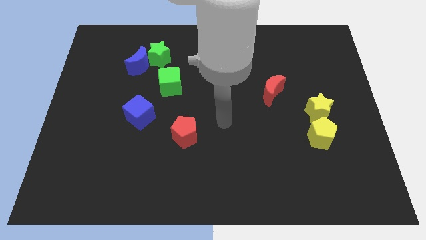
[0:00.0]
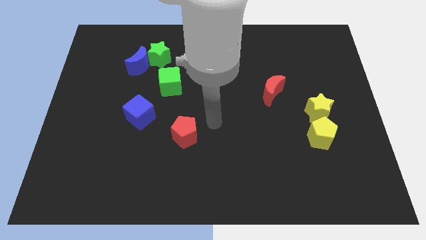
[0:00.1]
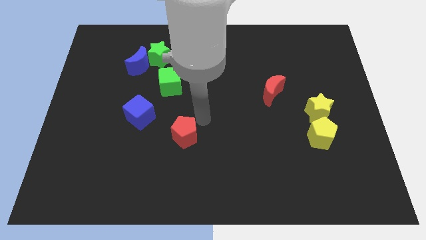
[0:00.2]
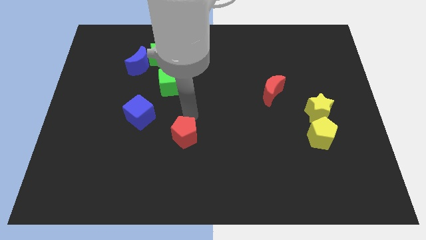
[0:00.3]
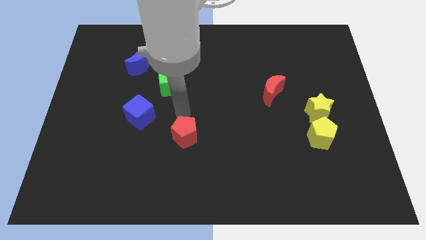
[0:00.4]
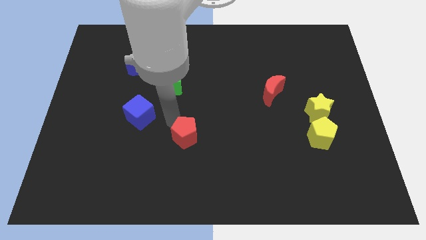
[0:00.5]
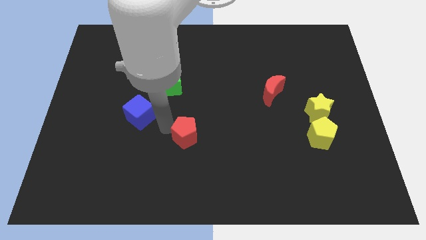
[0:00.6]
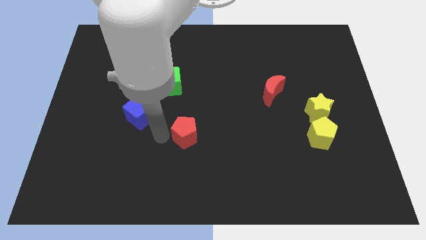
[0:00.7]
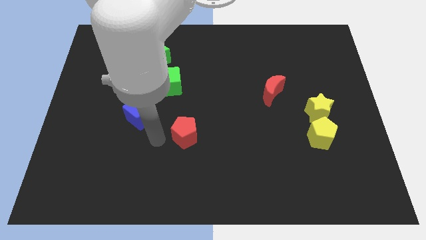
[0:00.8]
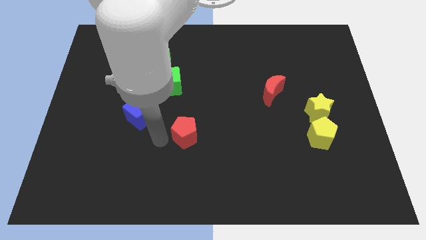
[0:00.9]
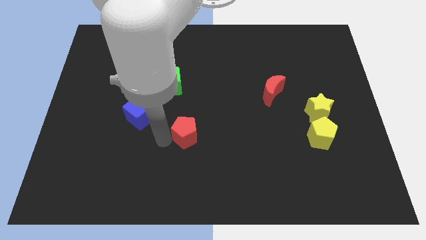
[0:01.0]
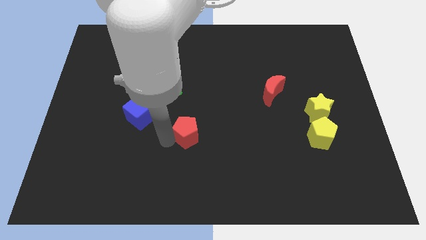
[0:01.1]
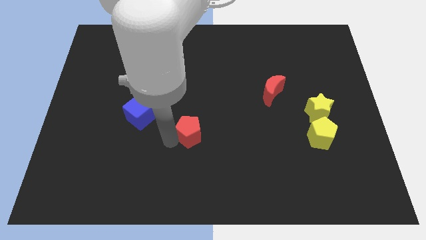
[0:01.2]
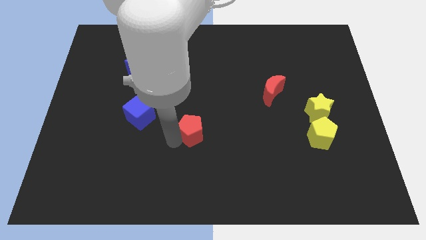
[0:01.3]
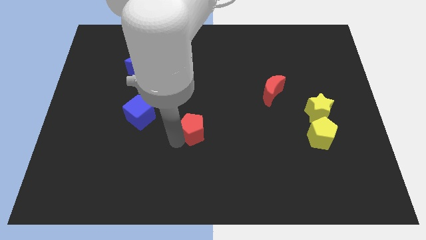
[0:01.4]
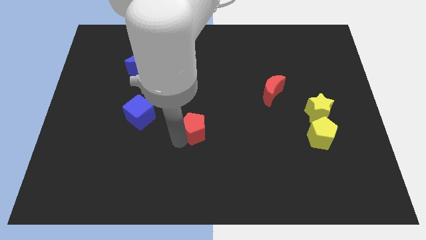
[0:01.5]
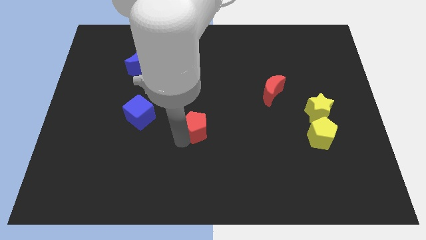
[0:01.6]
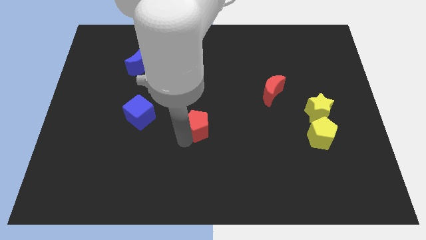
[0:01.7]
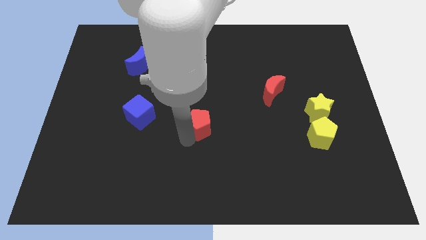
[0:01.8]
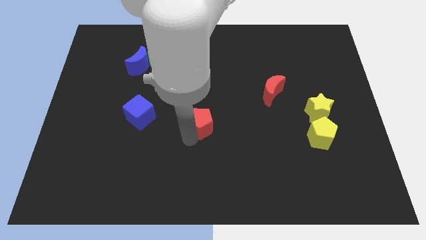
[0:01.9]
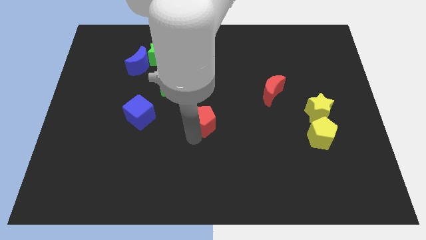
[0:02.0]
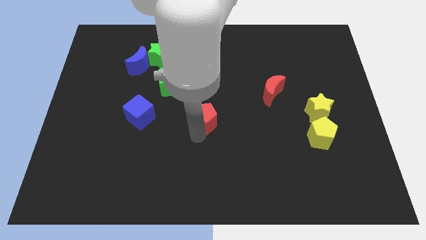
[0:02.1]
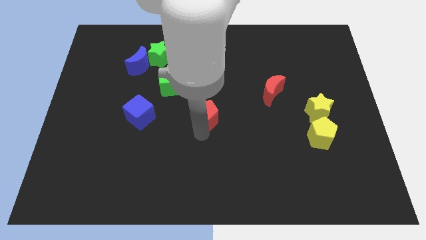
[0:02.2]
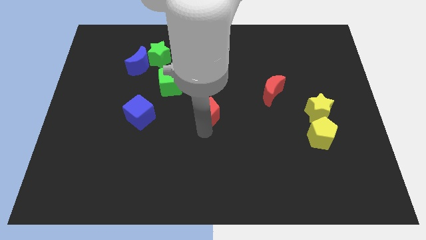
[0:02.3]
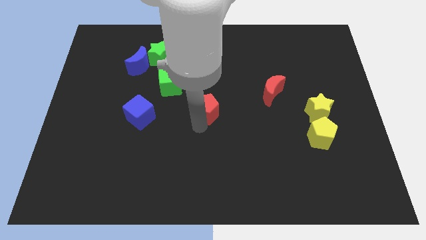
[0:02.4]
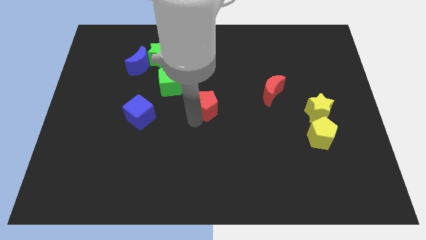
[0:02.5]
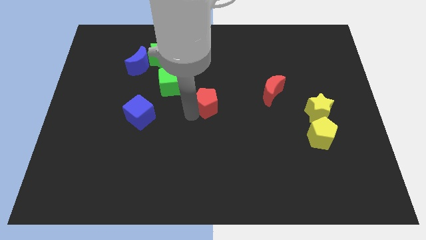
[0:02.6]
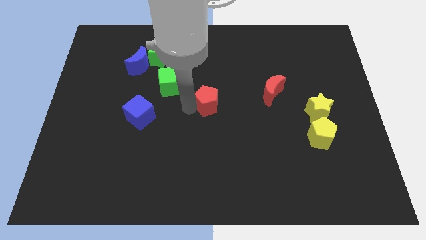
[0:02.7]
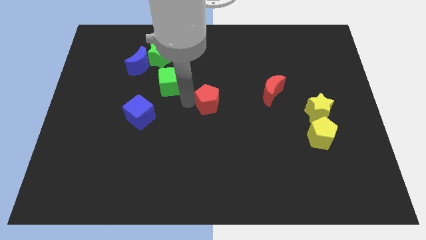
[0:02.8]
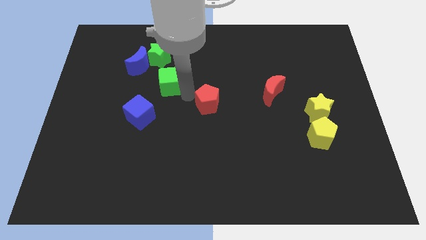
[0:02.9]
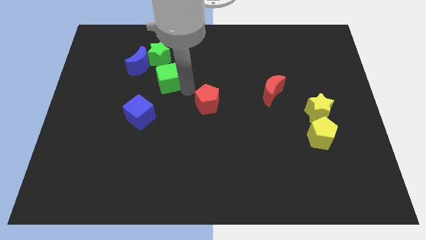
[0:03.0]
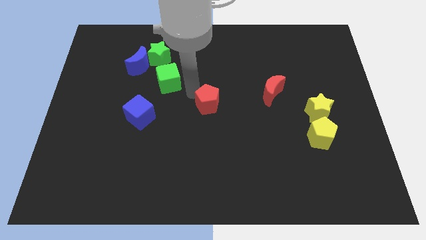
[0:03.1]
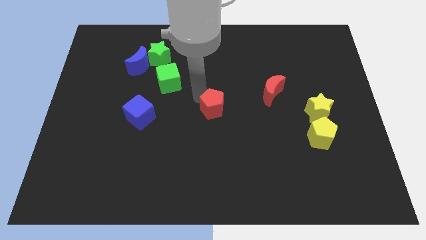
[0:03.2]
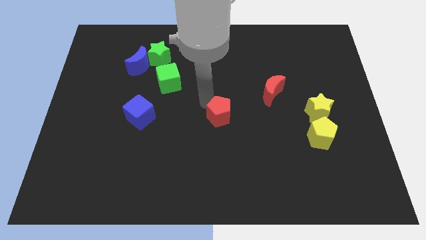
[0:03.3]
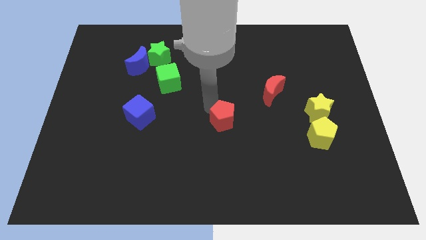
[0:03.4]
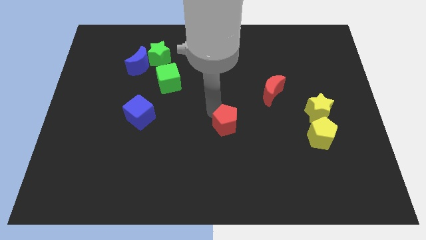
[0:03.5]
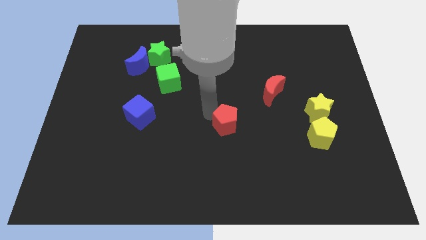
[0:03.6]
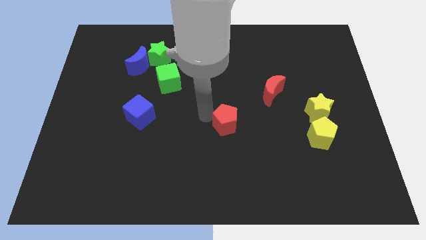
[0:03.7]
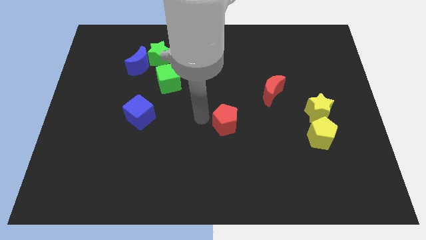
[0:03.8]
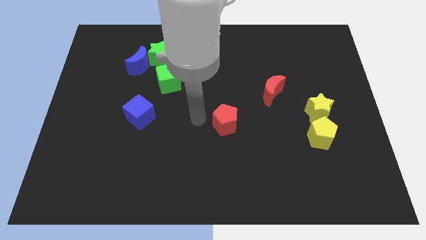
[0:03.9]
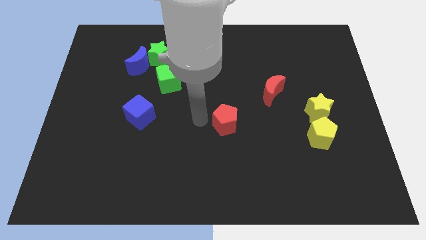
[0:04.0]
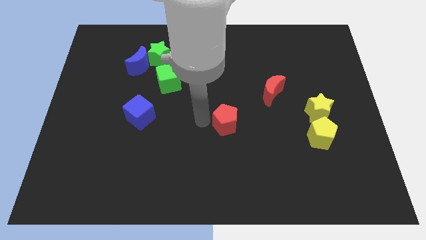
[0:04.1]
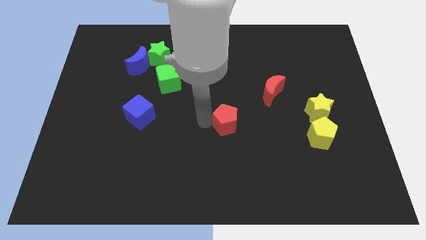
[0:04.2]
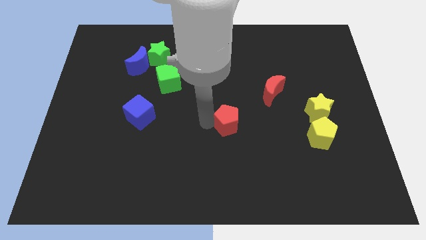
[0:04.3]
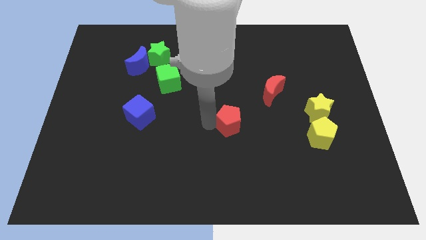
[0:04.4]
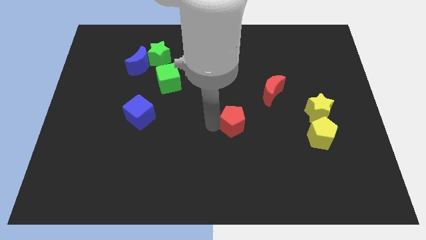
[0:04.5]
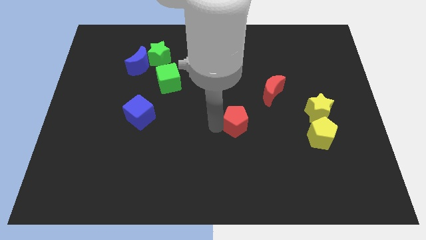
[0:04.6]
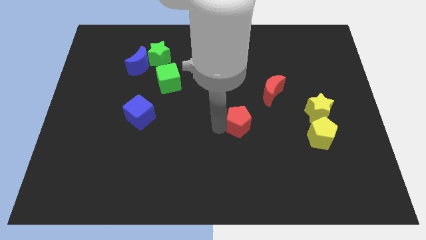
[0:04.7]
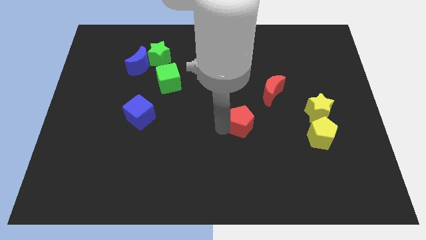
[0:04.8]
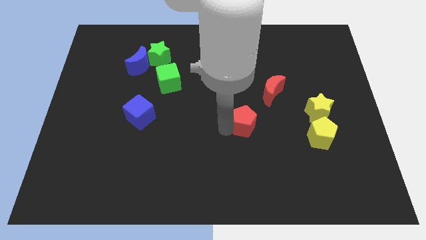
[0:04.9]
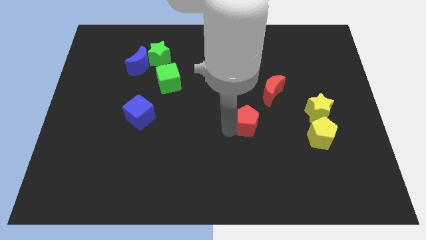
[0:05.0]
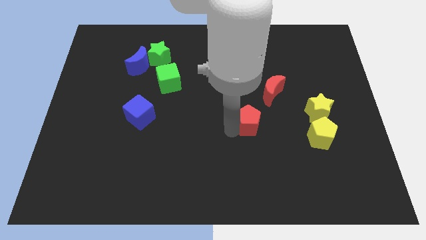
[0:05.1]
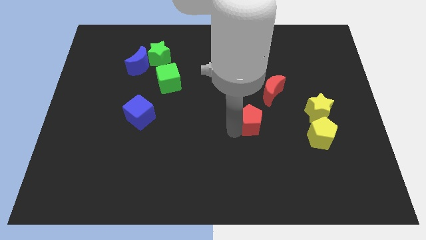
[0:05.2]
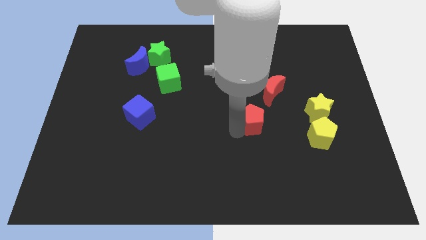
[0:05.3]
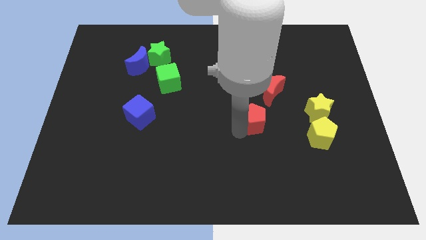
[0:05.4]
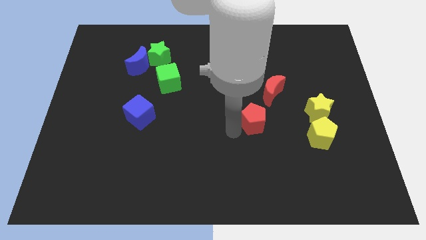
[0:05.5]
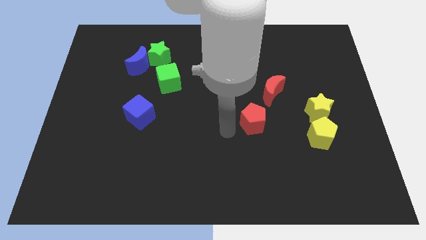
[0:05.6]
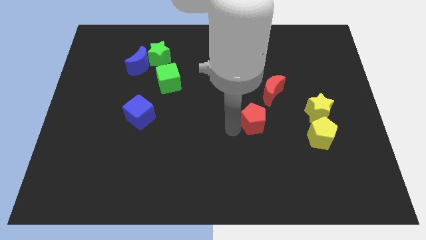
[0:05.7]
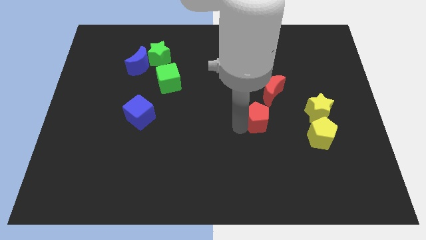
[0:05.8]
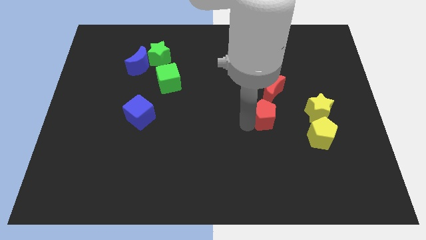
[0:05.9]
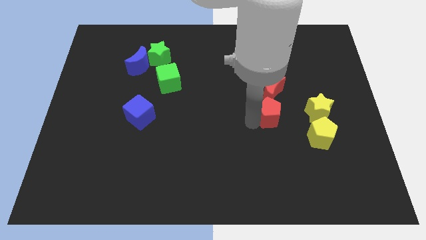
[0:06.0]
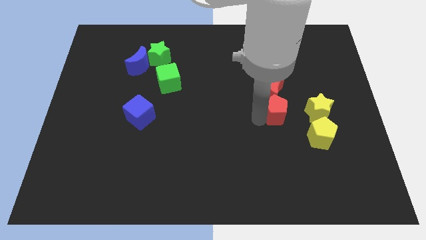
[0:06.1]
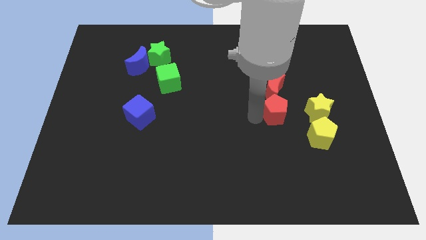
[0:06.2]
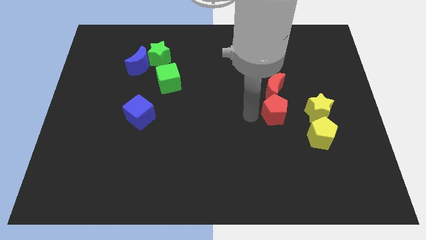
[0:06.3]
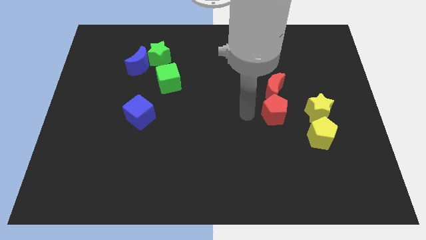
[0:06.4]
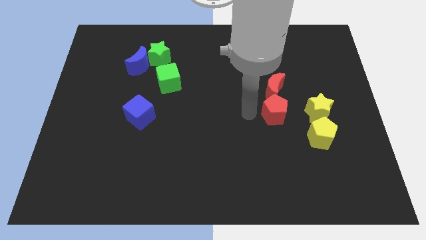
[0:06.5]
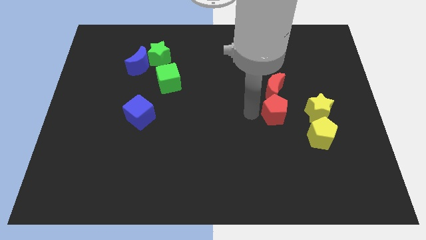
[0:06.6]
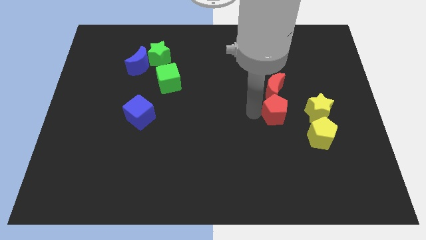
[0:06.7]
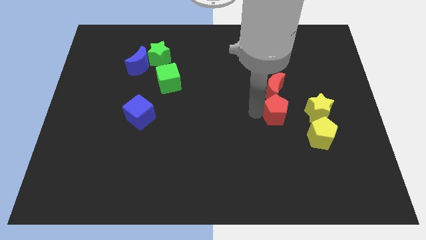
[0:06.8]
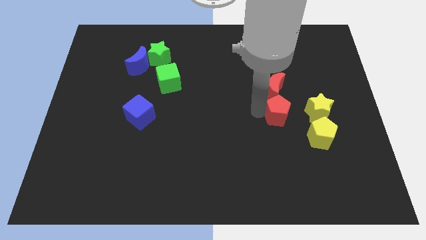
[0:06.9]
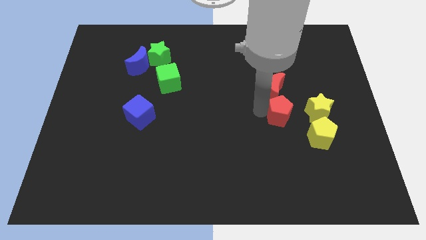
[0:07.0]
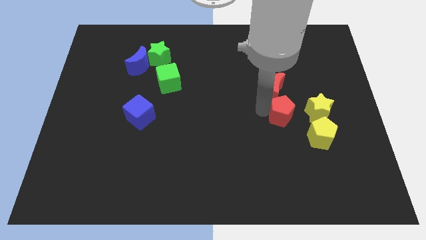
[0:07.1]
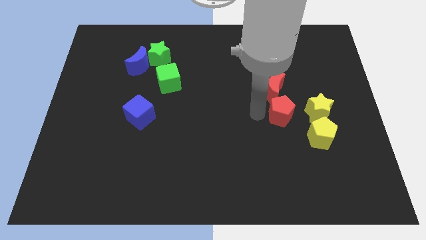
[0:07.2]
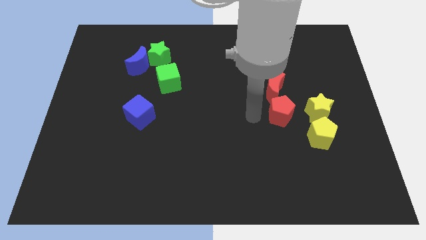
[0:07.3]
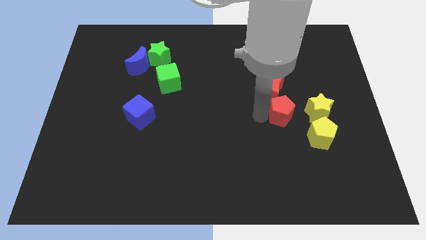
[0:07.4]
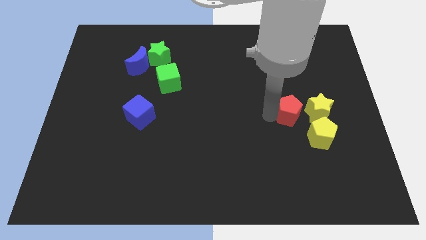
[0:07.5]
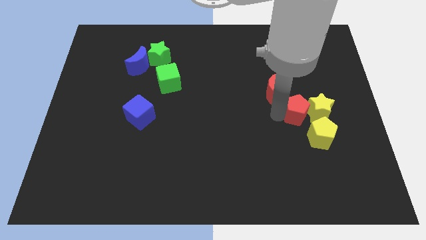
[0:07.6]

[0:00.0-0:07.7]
slide the red pentagon next to the yellow star
